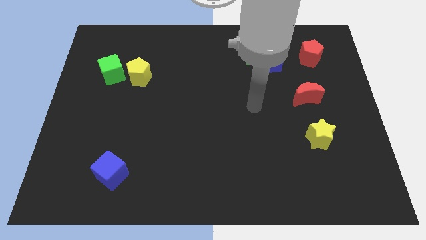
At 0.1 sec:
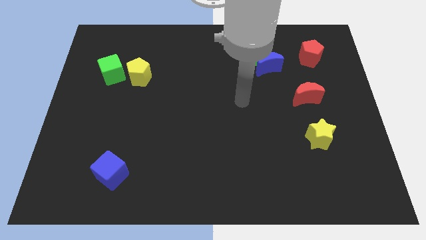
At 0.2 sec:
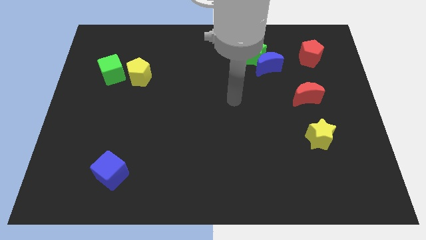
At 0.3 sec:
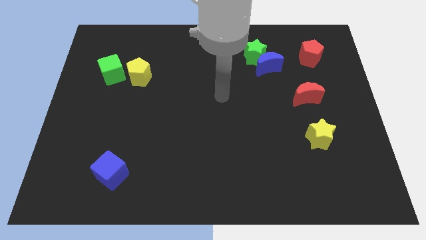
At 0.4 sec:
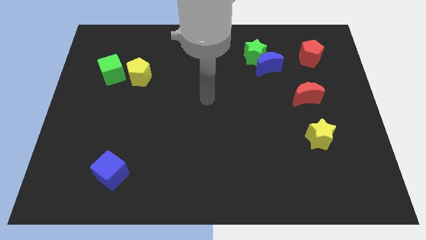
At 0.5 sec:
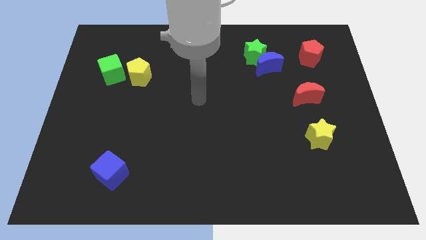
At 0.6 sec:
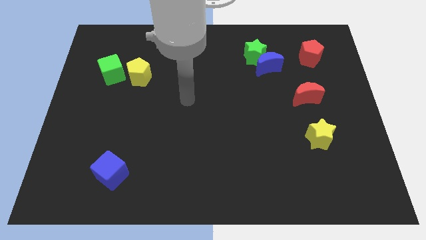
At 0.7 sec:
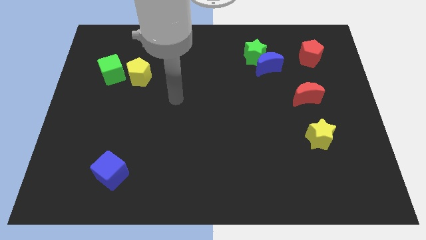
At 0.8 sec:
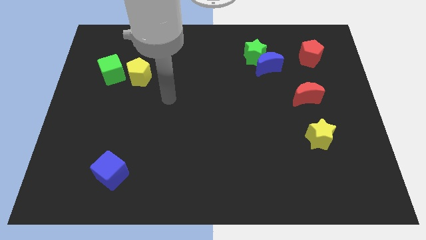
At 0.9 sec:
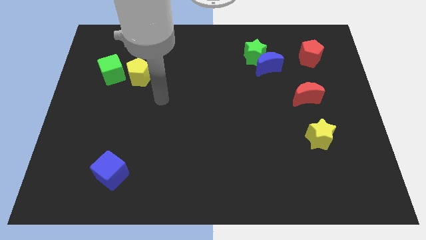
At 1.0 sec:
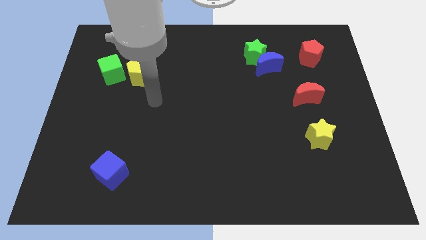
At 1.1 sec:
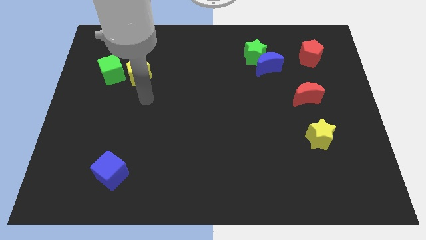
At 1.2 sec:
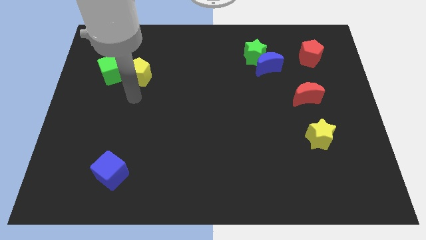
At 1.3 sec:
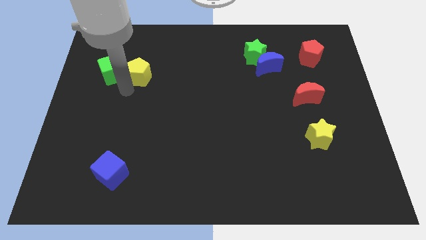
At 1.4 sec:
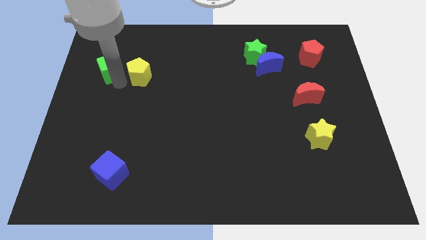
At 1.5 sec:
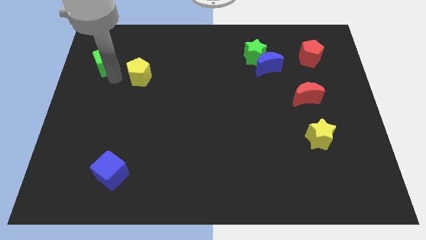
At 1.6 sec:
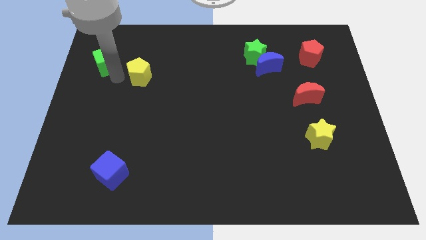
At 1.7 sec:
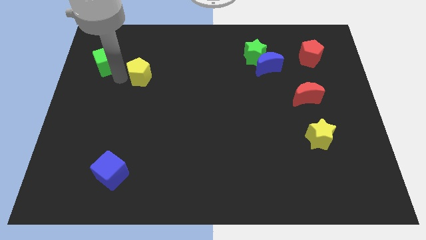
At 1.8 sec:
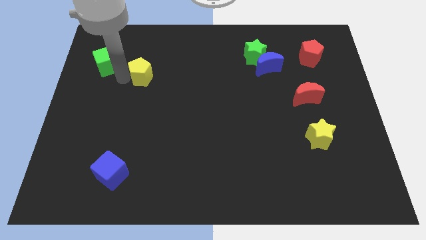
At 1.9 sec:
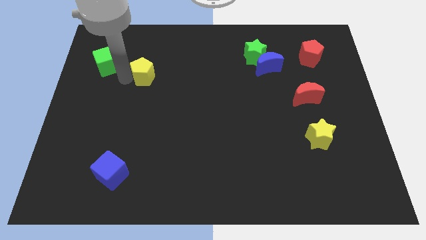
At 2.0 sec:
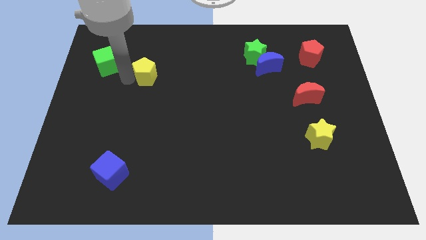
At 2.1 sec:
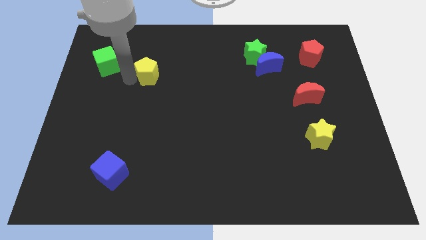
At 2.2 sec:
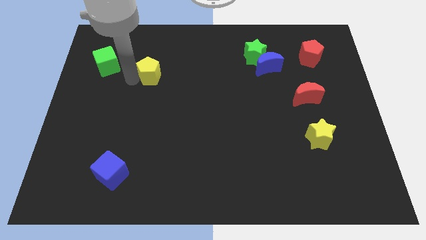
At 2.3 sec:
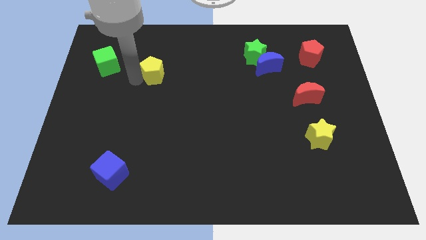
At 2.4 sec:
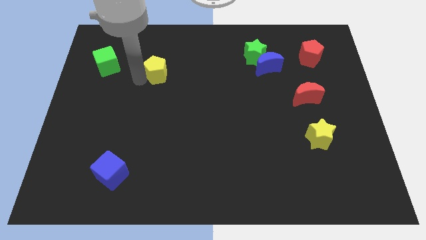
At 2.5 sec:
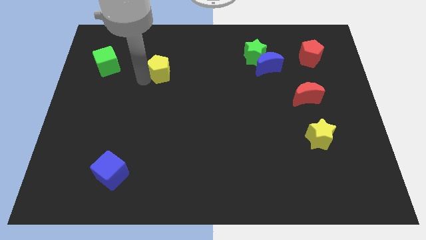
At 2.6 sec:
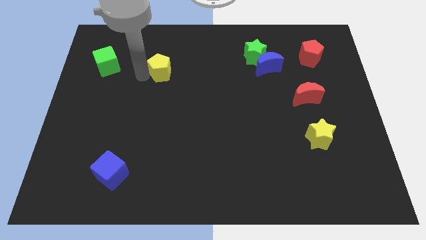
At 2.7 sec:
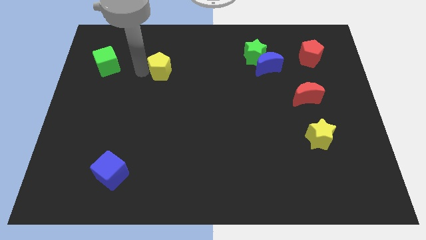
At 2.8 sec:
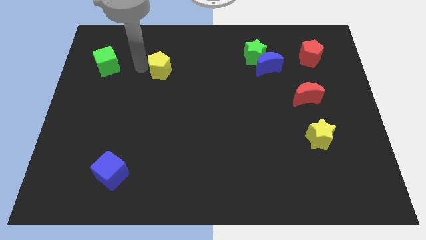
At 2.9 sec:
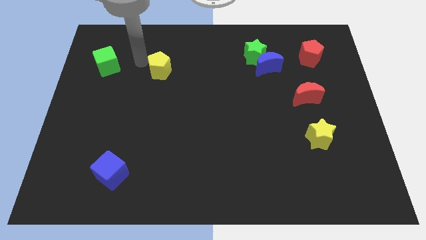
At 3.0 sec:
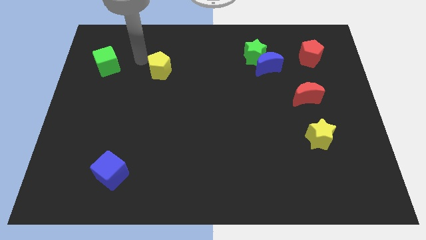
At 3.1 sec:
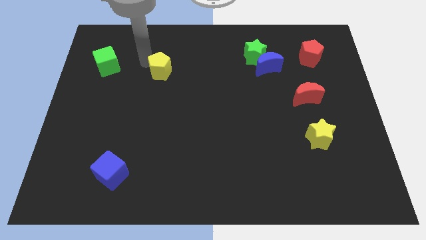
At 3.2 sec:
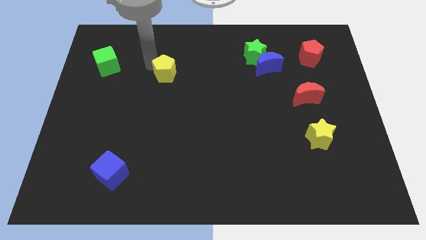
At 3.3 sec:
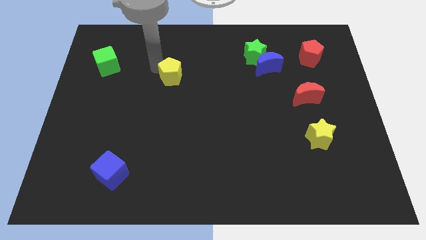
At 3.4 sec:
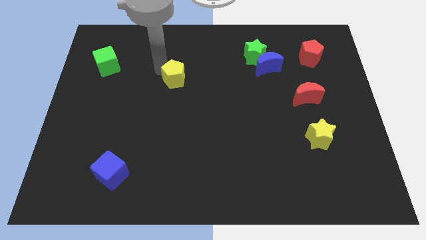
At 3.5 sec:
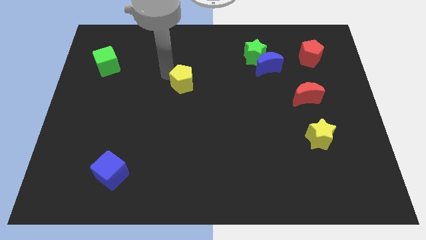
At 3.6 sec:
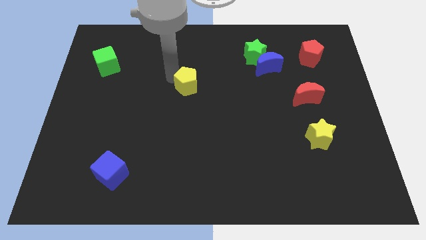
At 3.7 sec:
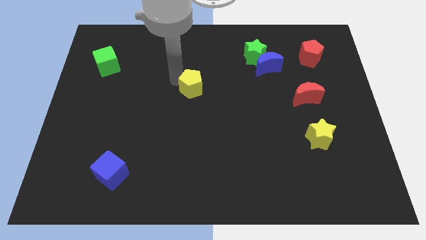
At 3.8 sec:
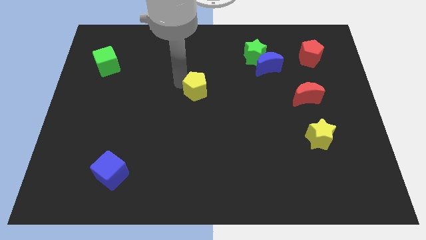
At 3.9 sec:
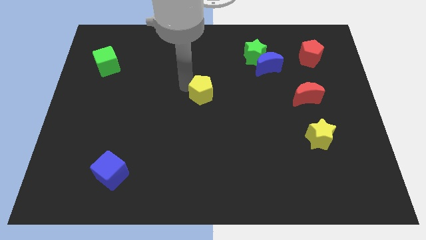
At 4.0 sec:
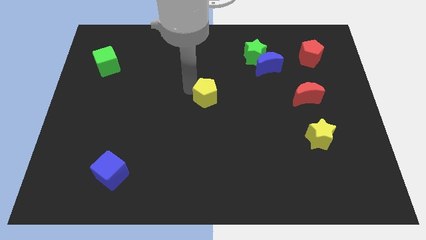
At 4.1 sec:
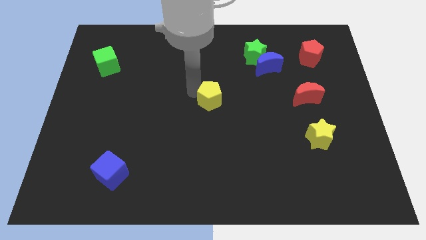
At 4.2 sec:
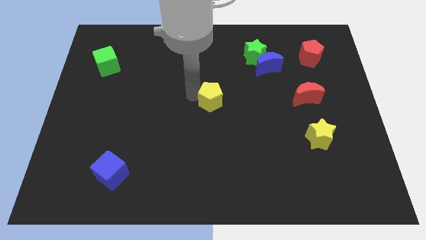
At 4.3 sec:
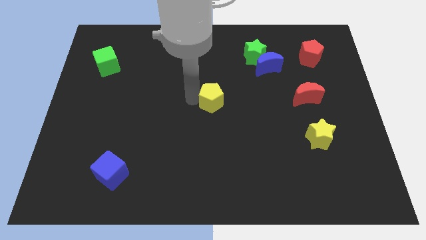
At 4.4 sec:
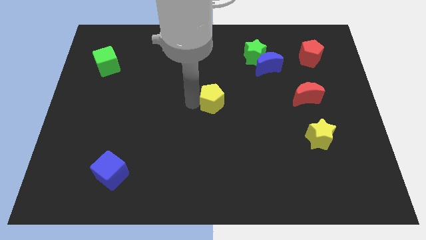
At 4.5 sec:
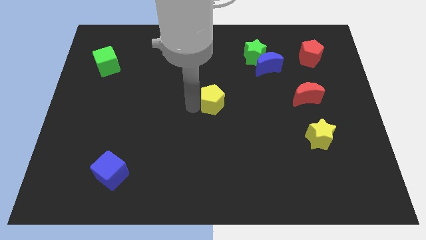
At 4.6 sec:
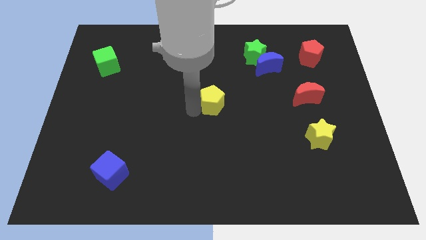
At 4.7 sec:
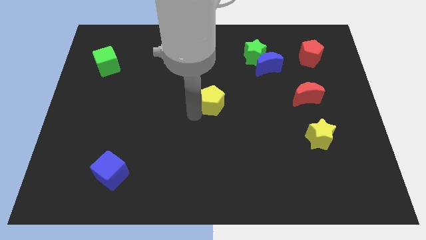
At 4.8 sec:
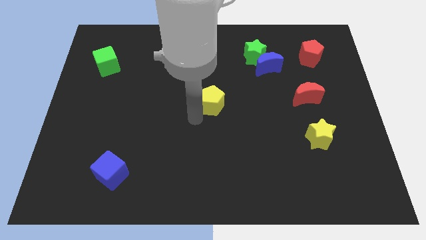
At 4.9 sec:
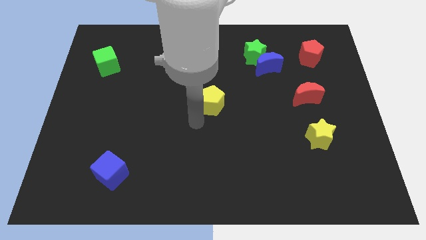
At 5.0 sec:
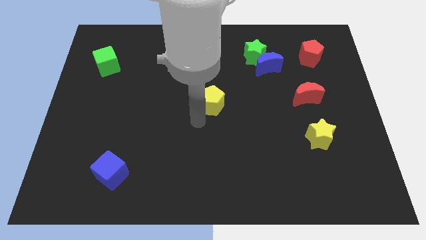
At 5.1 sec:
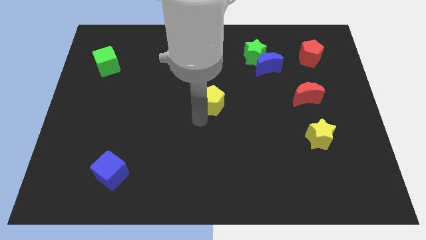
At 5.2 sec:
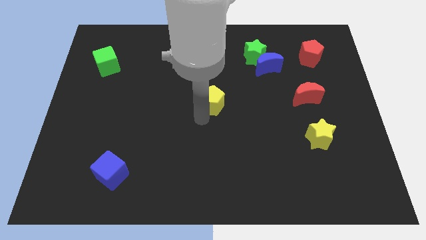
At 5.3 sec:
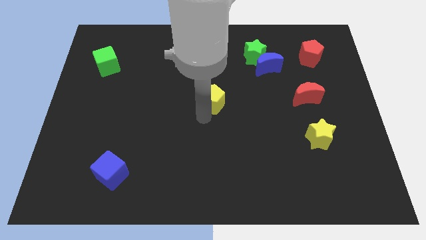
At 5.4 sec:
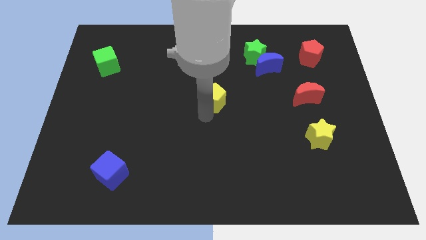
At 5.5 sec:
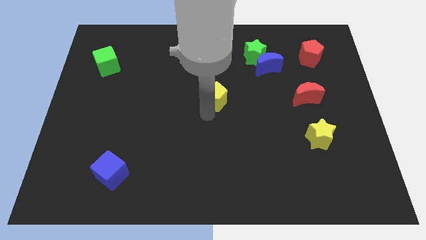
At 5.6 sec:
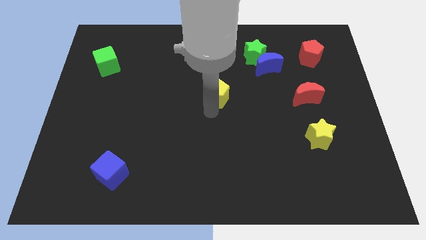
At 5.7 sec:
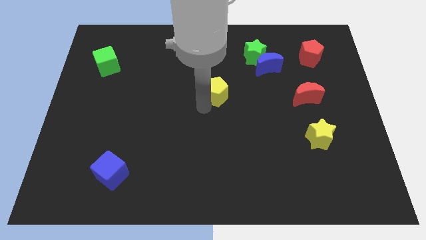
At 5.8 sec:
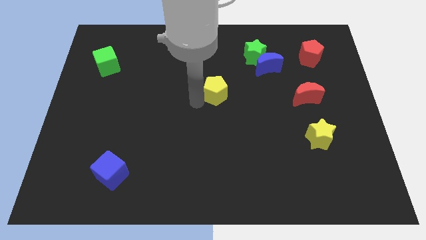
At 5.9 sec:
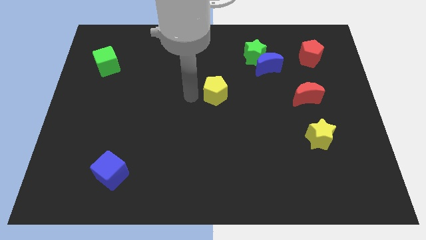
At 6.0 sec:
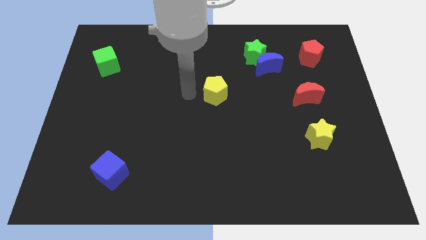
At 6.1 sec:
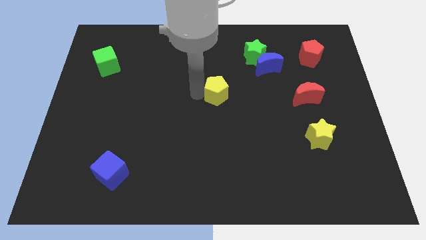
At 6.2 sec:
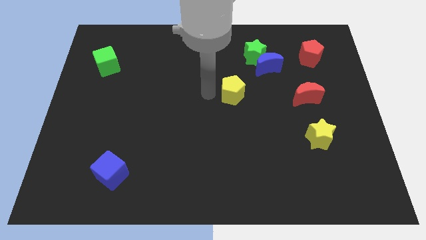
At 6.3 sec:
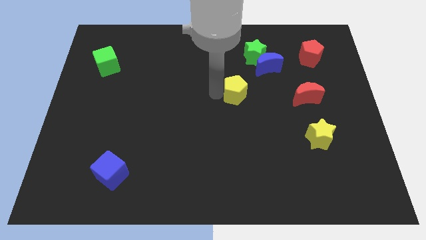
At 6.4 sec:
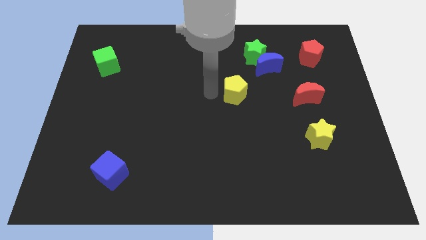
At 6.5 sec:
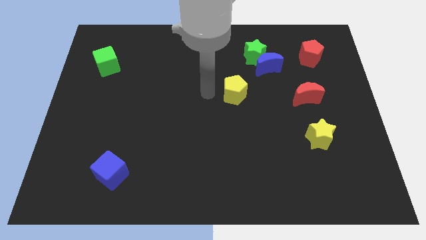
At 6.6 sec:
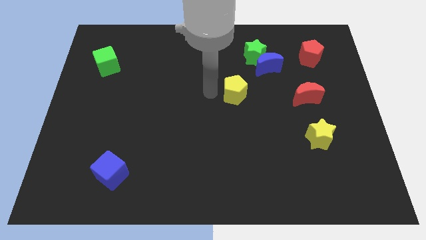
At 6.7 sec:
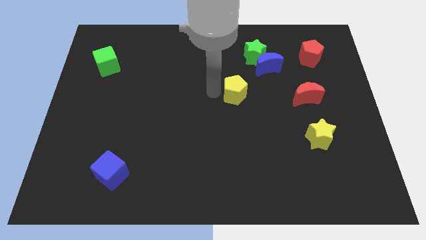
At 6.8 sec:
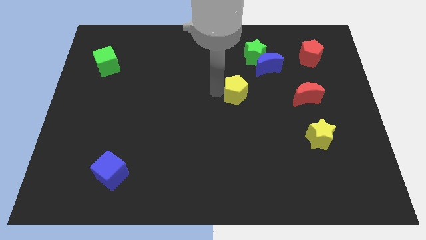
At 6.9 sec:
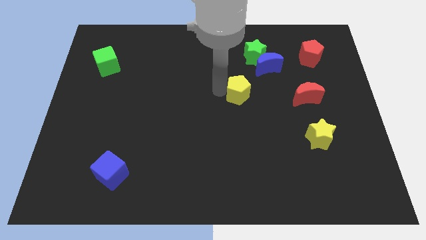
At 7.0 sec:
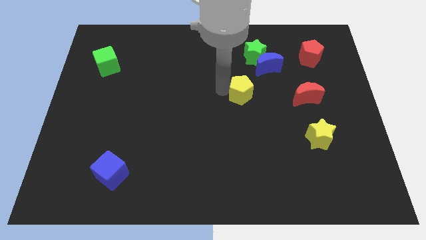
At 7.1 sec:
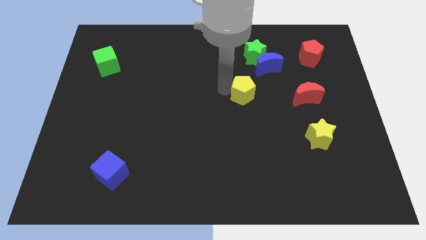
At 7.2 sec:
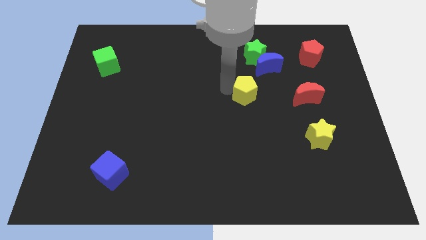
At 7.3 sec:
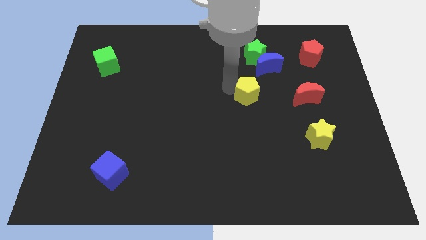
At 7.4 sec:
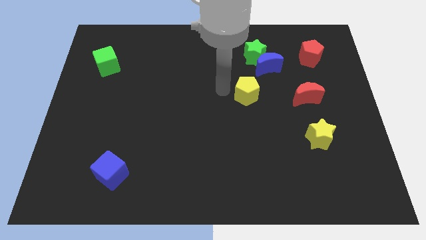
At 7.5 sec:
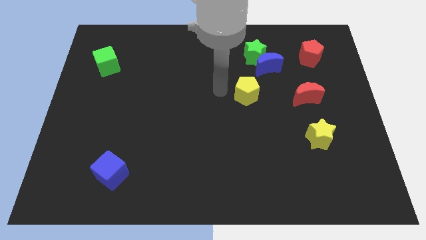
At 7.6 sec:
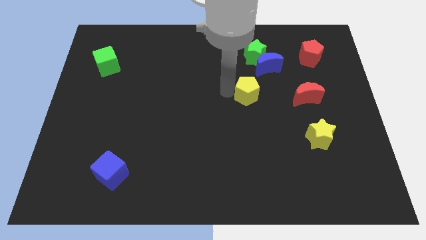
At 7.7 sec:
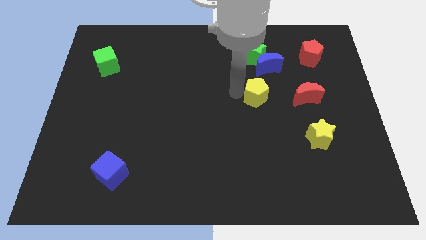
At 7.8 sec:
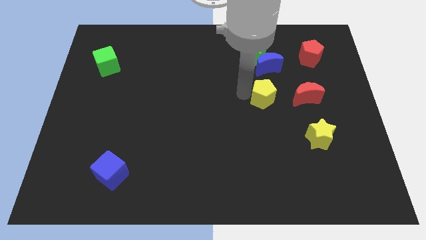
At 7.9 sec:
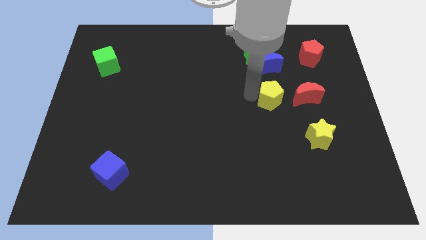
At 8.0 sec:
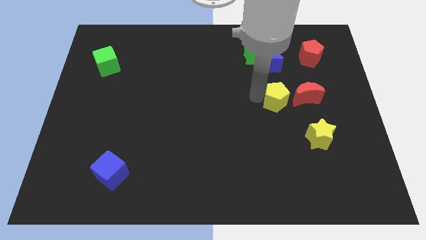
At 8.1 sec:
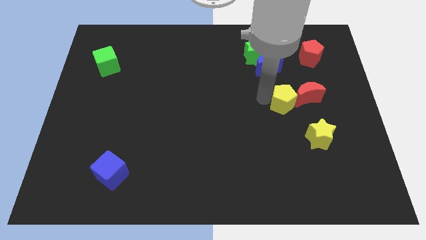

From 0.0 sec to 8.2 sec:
move the yellow pentagon towards the red moon
